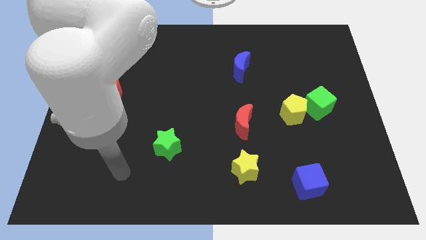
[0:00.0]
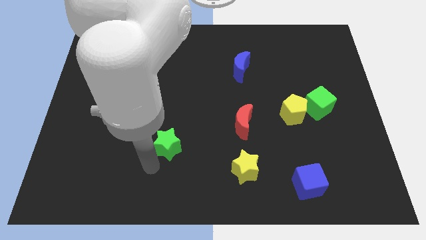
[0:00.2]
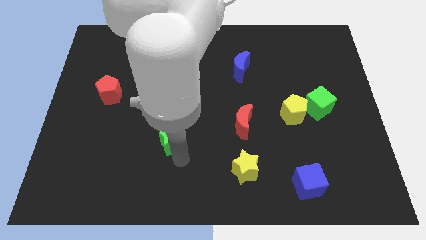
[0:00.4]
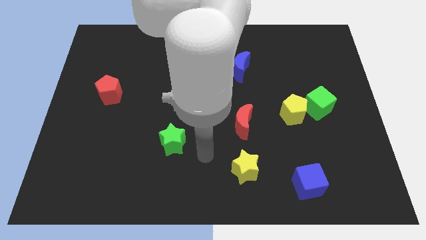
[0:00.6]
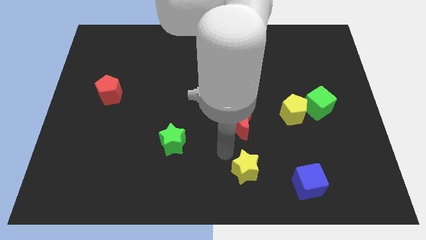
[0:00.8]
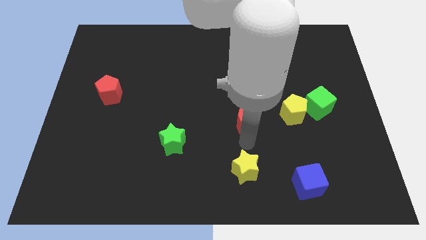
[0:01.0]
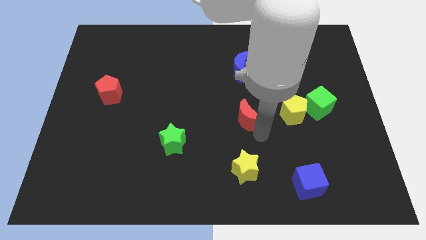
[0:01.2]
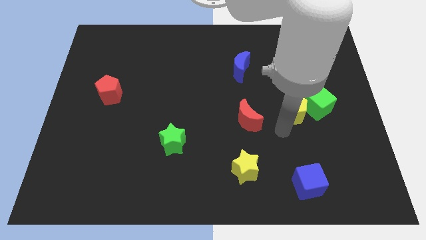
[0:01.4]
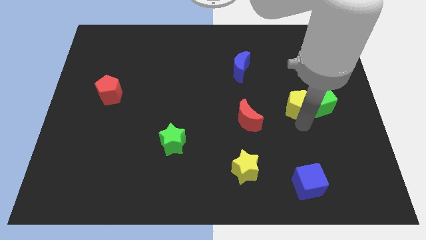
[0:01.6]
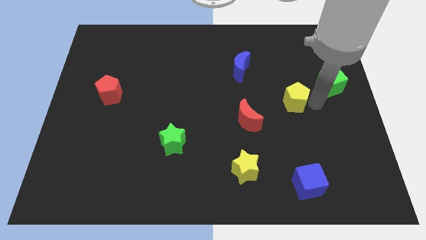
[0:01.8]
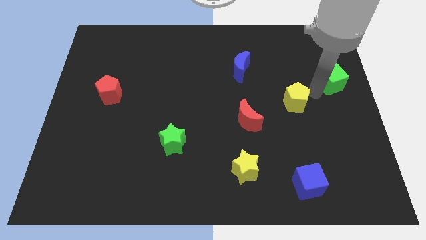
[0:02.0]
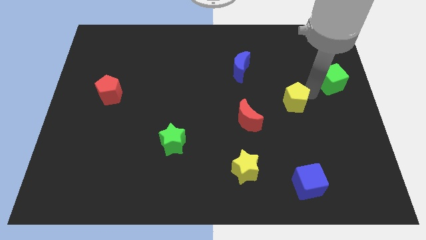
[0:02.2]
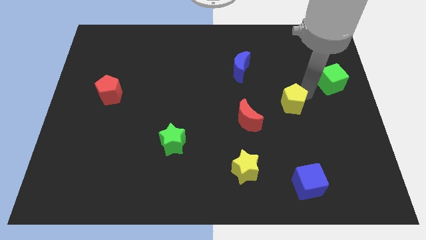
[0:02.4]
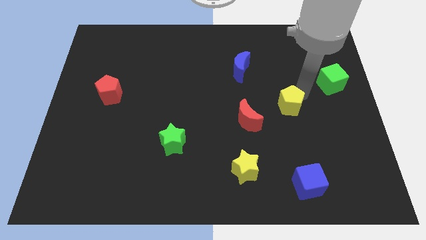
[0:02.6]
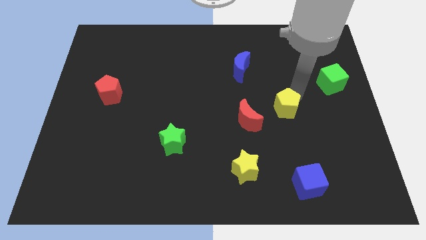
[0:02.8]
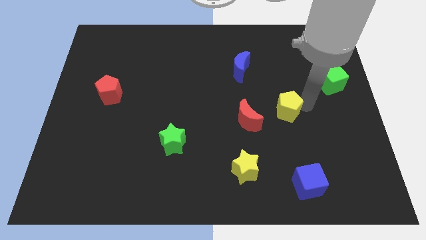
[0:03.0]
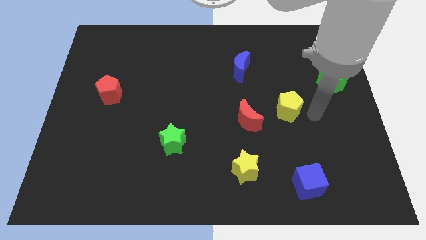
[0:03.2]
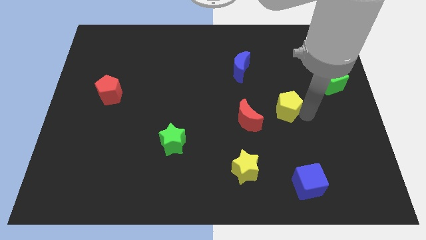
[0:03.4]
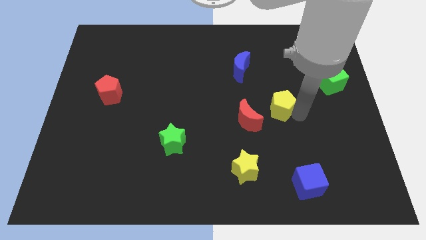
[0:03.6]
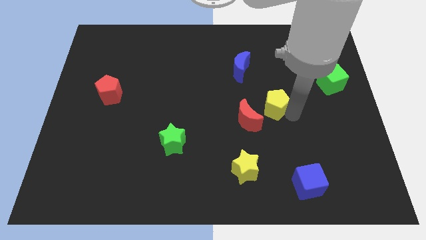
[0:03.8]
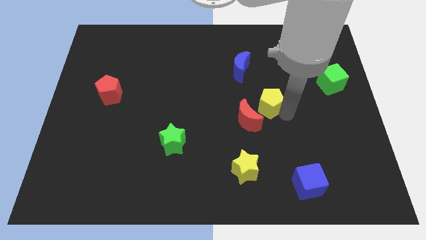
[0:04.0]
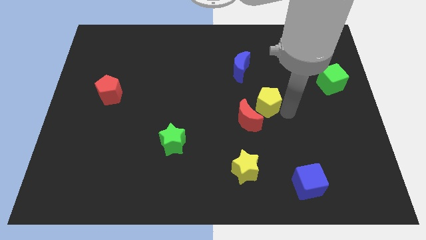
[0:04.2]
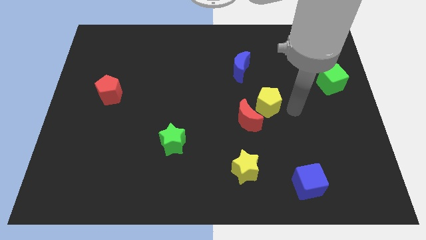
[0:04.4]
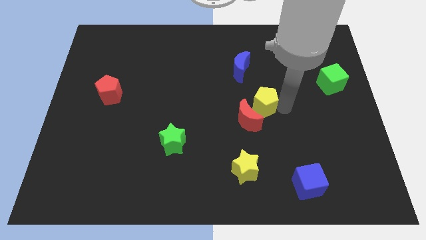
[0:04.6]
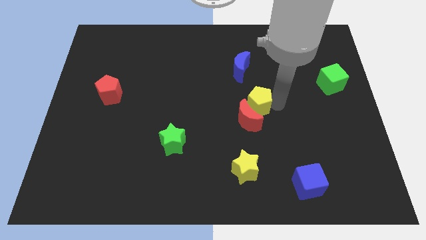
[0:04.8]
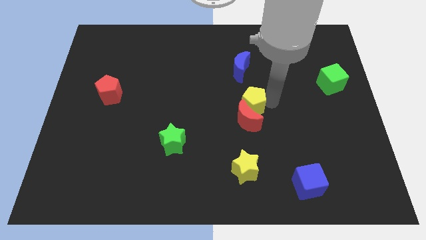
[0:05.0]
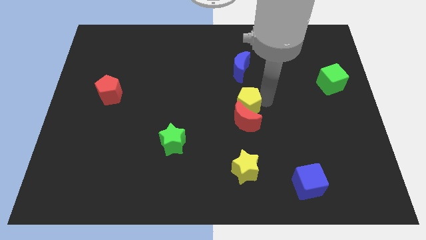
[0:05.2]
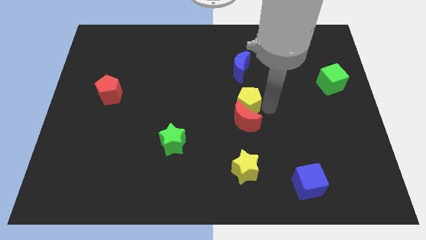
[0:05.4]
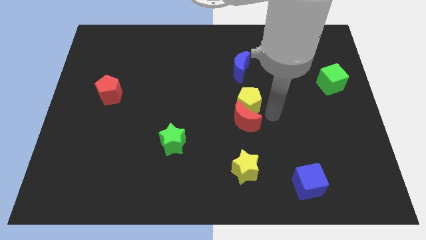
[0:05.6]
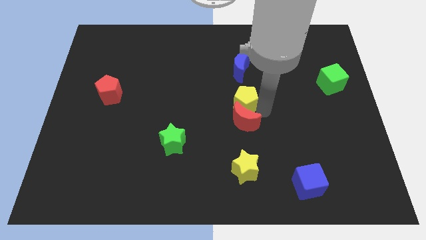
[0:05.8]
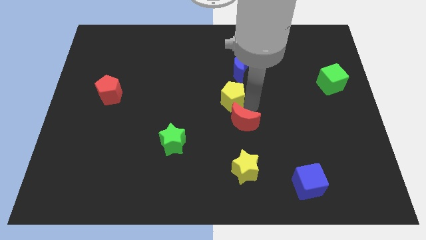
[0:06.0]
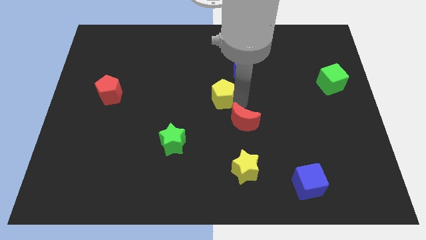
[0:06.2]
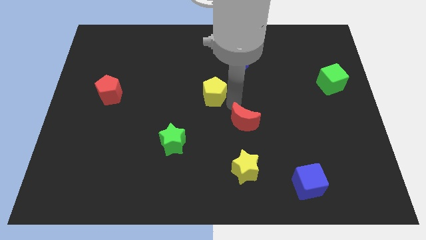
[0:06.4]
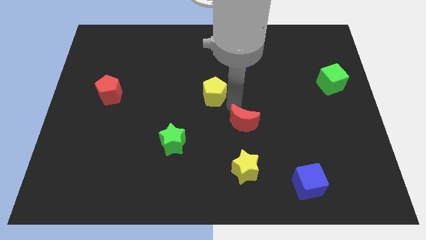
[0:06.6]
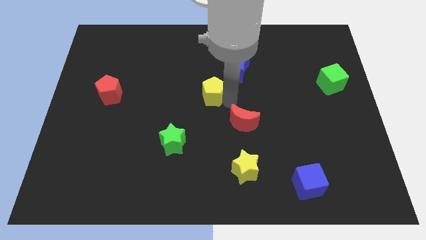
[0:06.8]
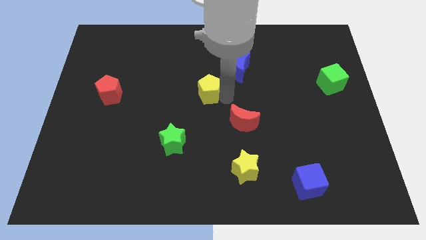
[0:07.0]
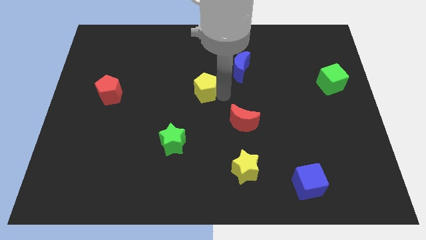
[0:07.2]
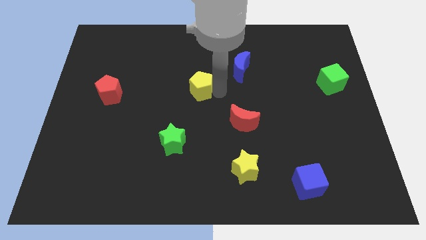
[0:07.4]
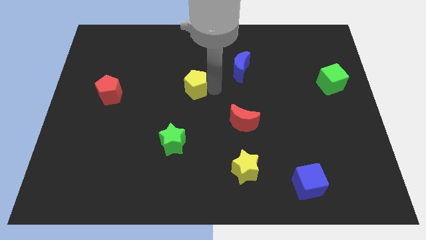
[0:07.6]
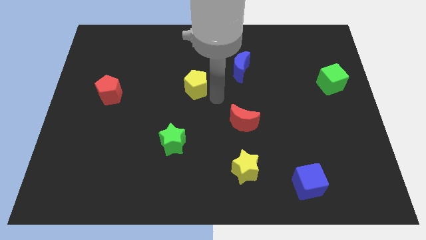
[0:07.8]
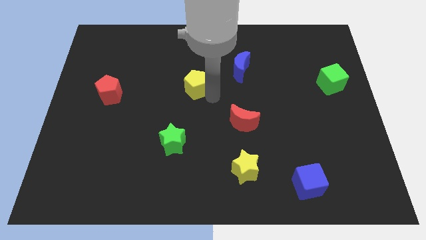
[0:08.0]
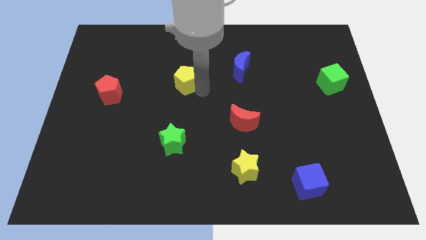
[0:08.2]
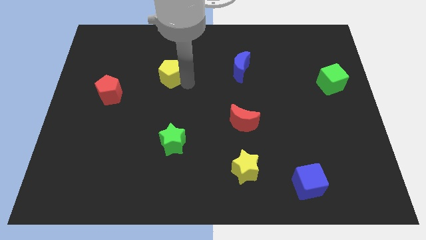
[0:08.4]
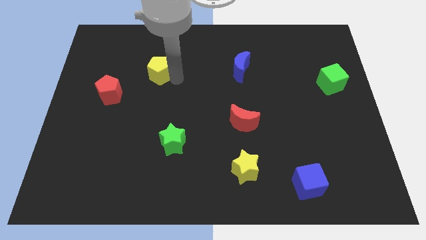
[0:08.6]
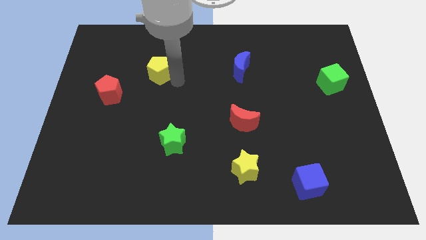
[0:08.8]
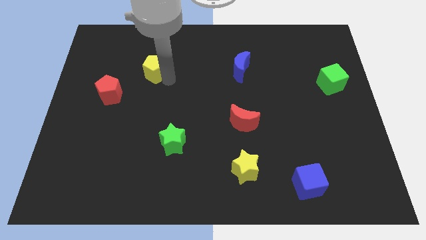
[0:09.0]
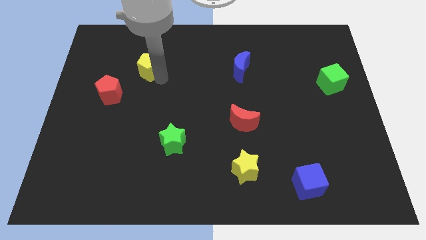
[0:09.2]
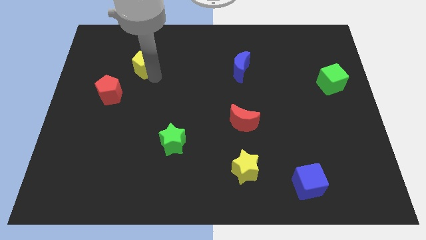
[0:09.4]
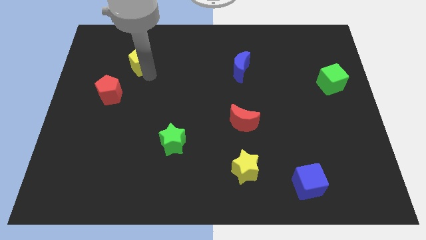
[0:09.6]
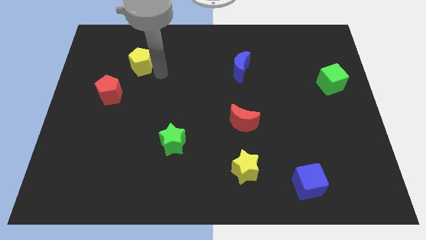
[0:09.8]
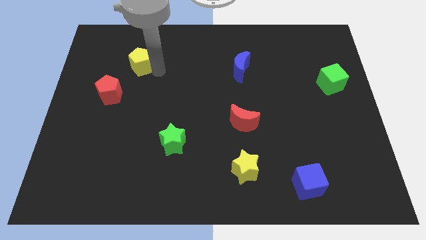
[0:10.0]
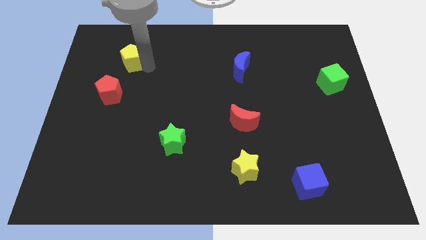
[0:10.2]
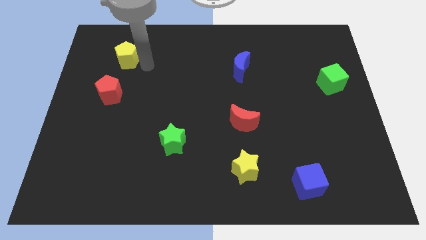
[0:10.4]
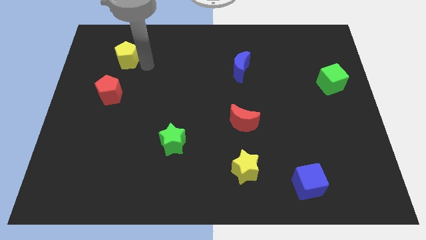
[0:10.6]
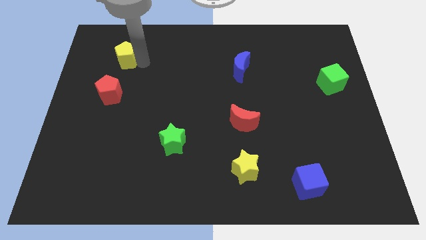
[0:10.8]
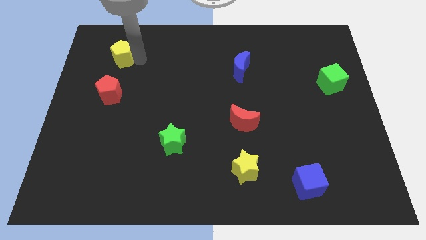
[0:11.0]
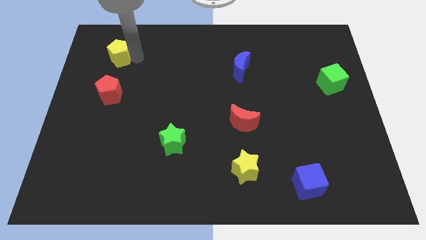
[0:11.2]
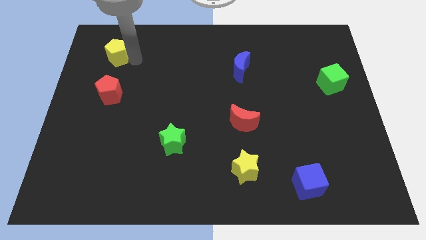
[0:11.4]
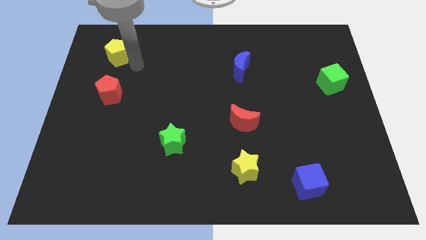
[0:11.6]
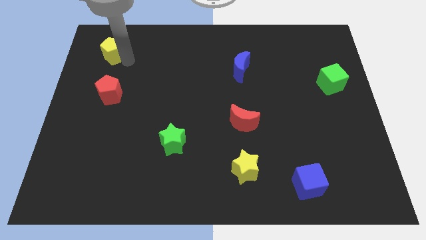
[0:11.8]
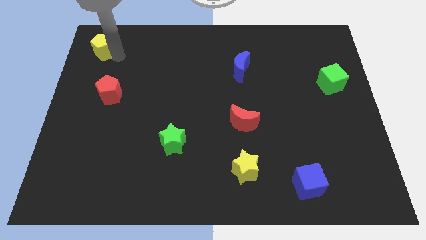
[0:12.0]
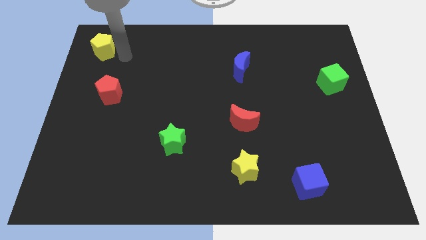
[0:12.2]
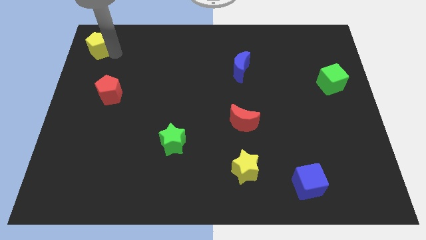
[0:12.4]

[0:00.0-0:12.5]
put the yellow pentagon to the top left of the board
